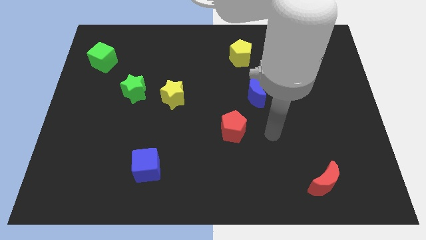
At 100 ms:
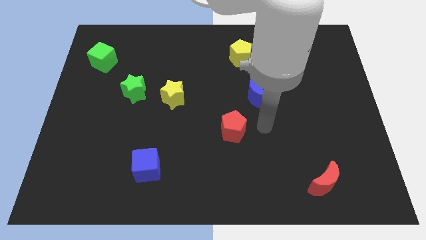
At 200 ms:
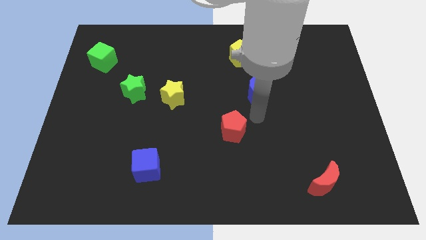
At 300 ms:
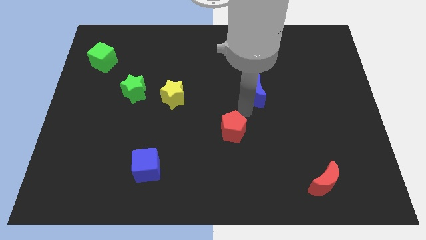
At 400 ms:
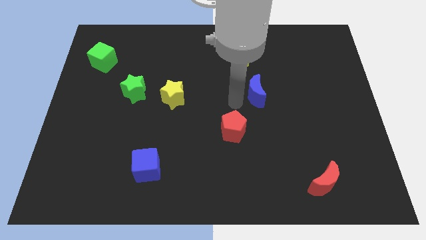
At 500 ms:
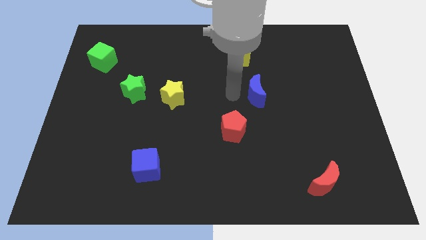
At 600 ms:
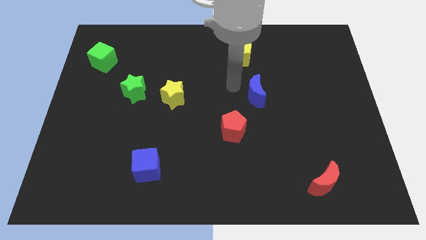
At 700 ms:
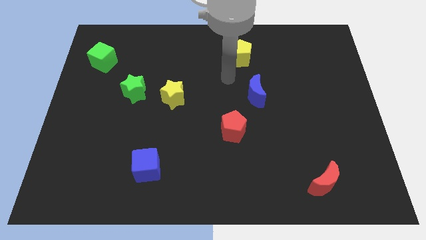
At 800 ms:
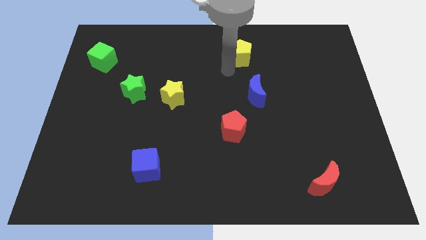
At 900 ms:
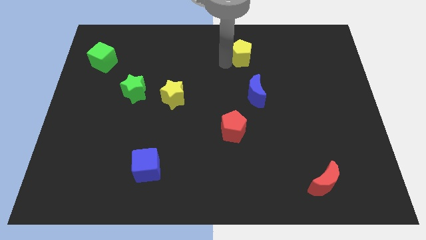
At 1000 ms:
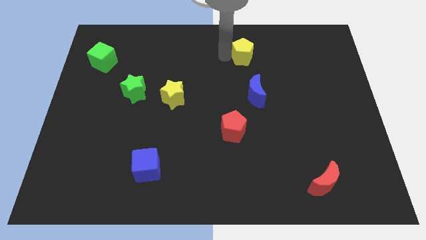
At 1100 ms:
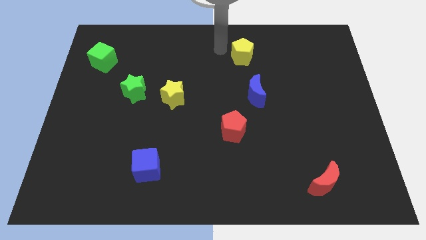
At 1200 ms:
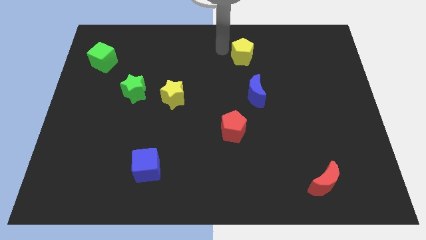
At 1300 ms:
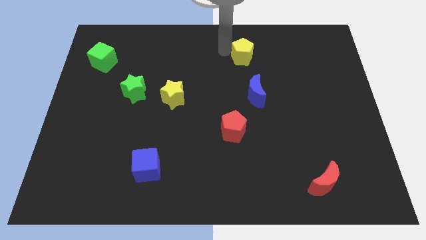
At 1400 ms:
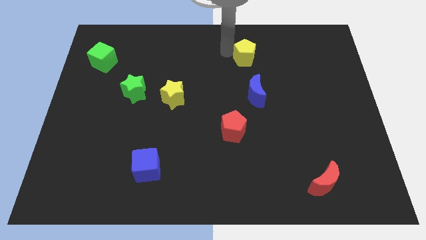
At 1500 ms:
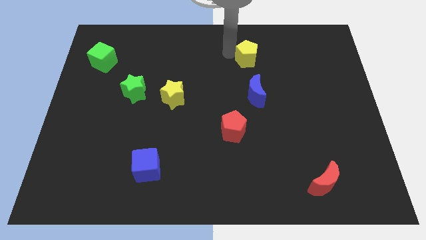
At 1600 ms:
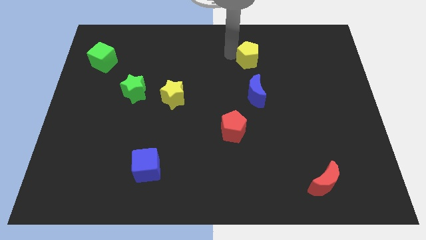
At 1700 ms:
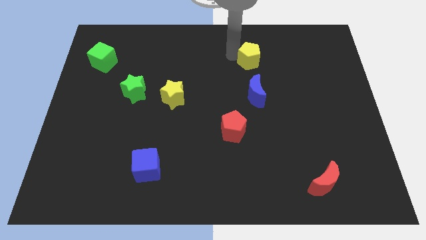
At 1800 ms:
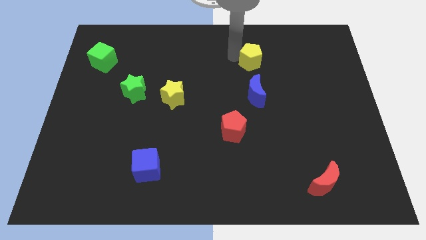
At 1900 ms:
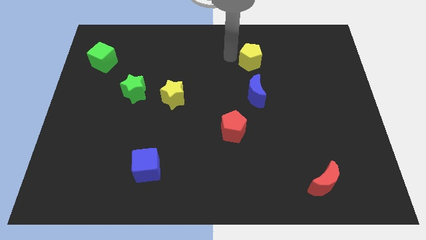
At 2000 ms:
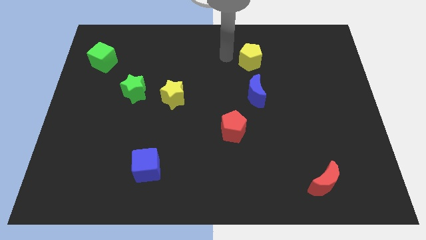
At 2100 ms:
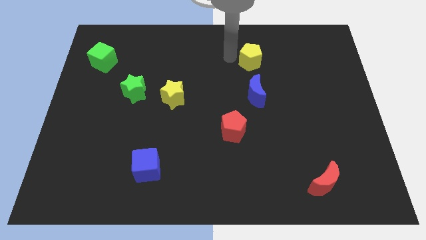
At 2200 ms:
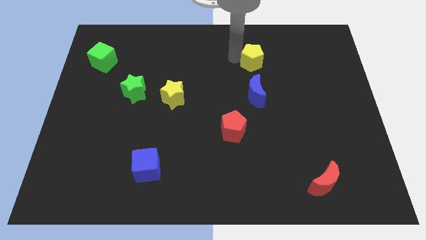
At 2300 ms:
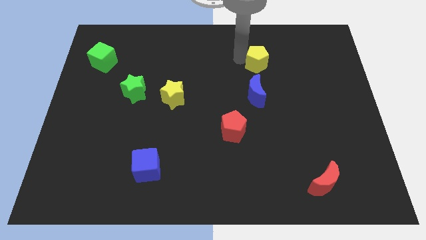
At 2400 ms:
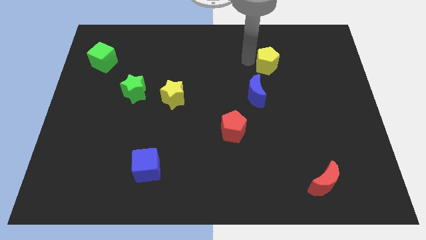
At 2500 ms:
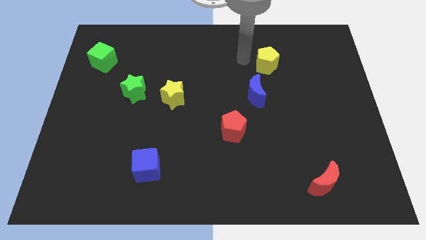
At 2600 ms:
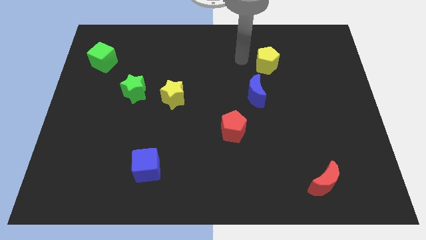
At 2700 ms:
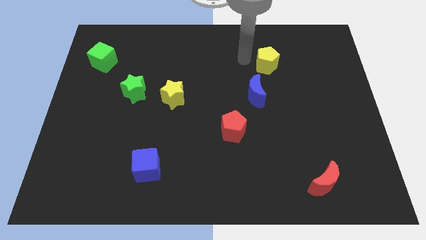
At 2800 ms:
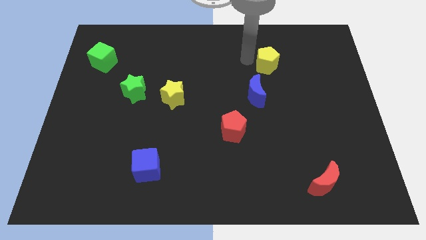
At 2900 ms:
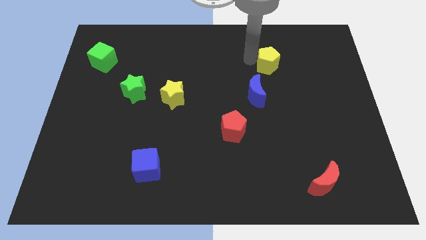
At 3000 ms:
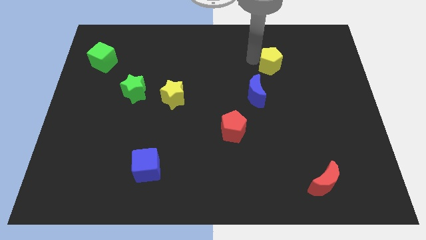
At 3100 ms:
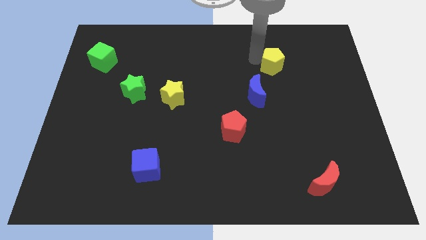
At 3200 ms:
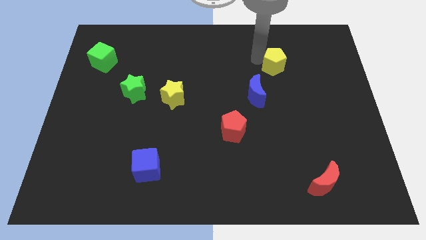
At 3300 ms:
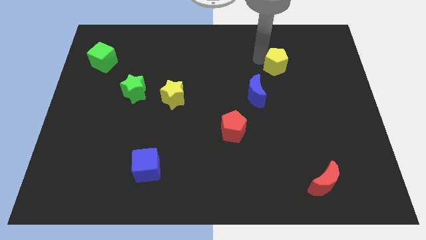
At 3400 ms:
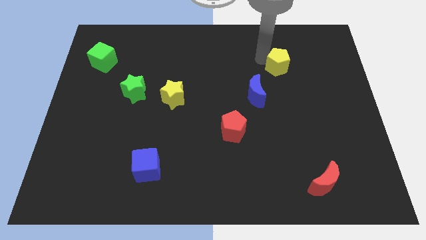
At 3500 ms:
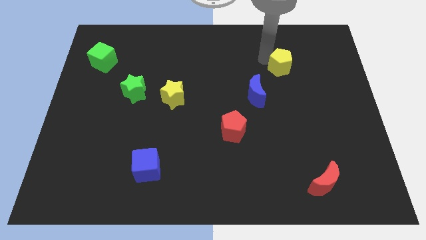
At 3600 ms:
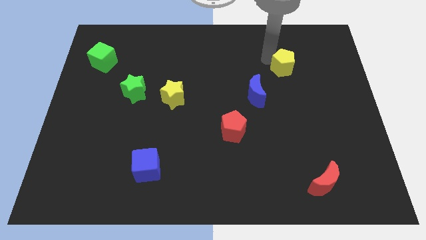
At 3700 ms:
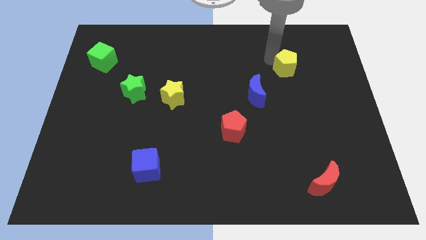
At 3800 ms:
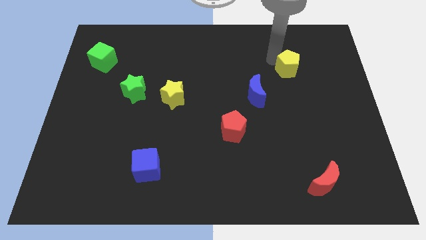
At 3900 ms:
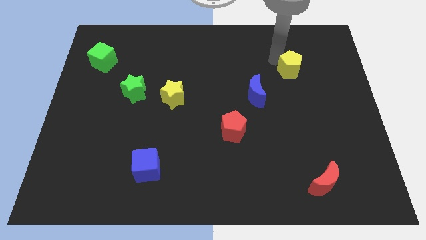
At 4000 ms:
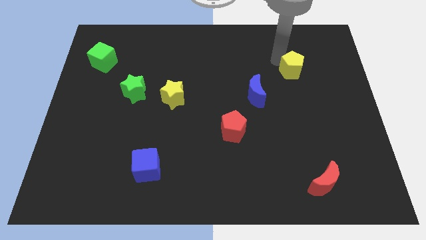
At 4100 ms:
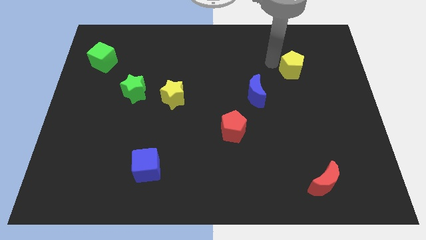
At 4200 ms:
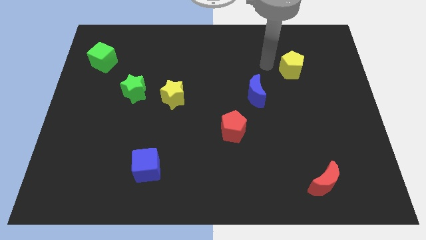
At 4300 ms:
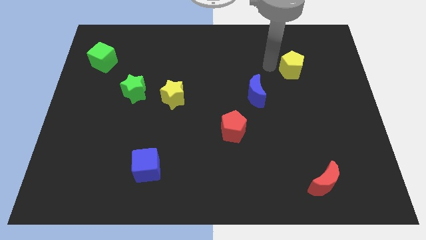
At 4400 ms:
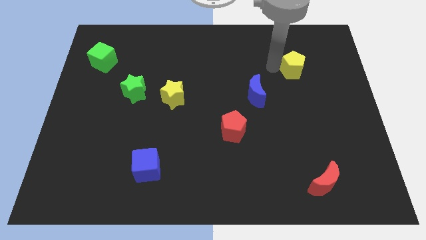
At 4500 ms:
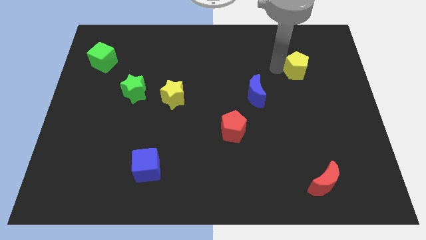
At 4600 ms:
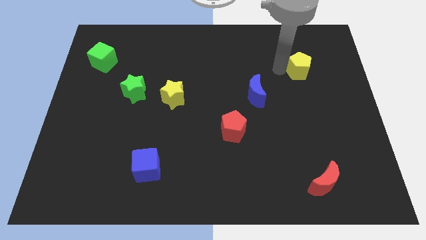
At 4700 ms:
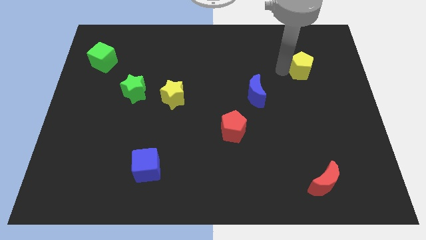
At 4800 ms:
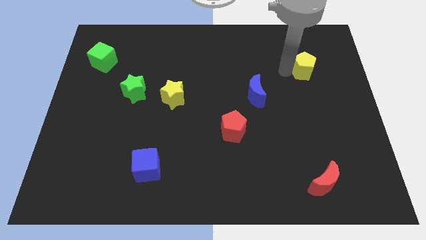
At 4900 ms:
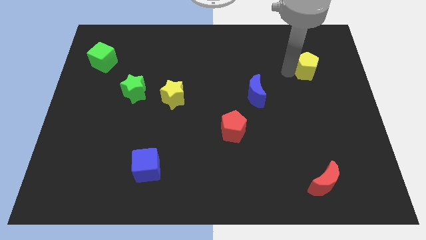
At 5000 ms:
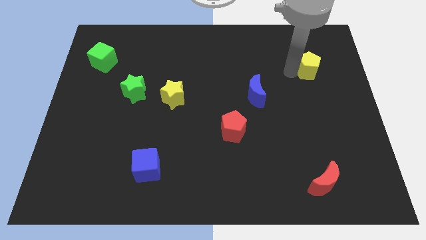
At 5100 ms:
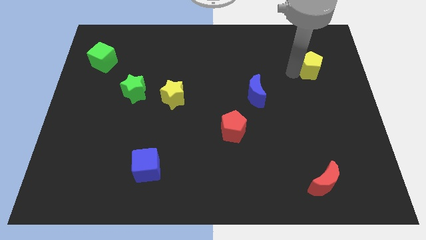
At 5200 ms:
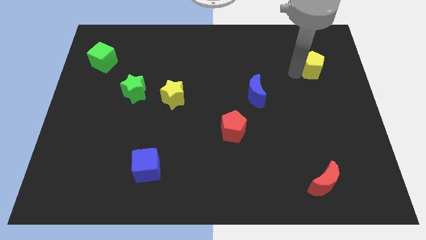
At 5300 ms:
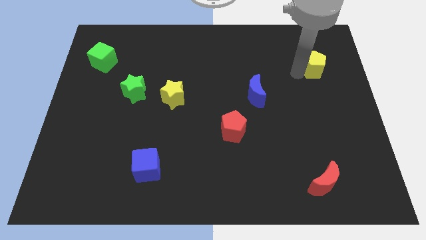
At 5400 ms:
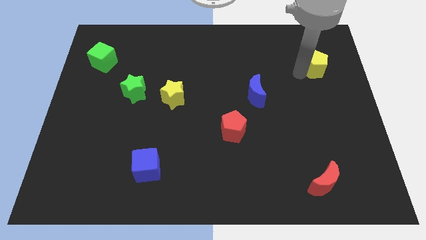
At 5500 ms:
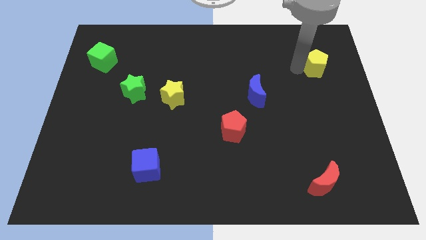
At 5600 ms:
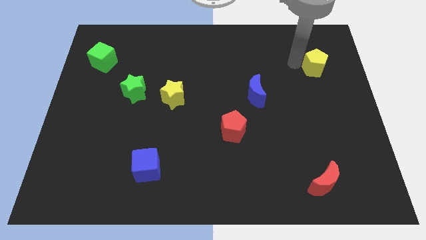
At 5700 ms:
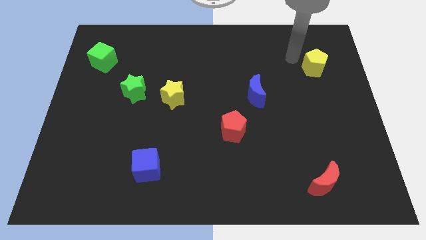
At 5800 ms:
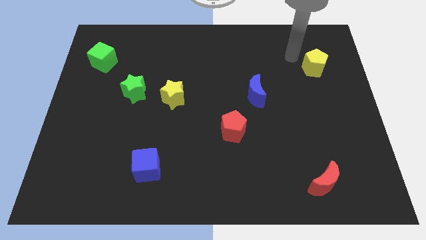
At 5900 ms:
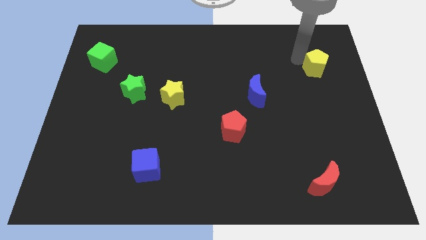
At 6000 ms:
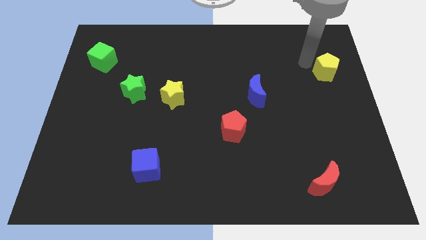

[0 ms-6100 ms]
push the yellow pentagon to the center right
